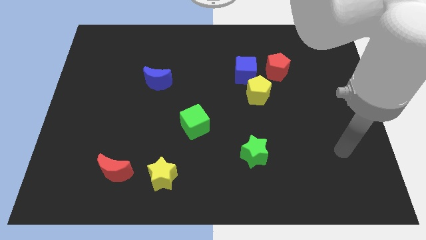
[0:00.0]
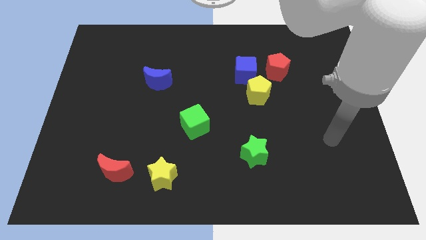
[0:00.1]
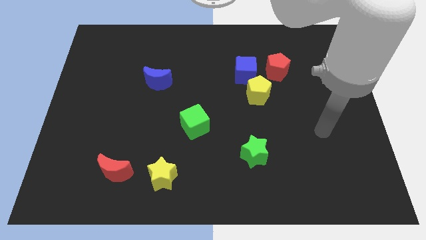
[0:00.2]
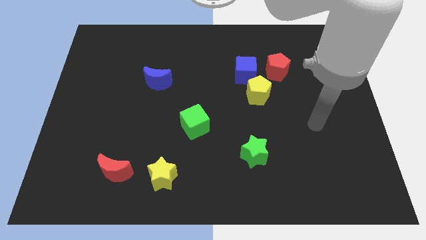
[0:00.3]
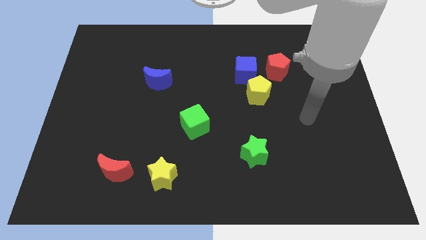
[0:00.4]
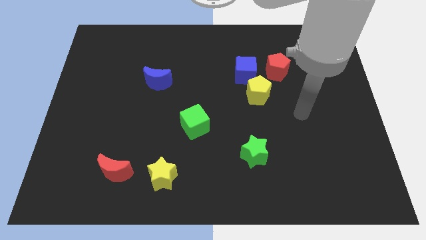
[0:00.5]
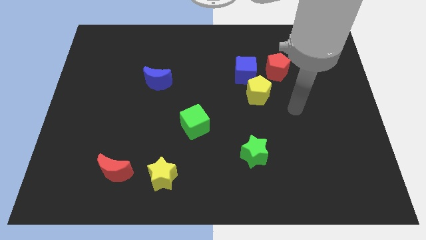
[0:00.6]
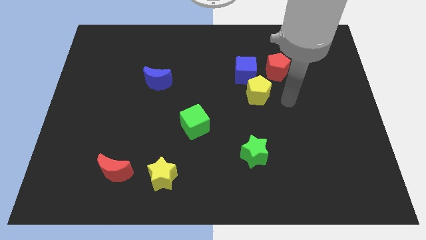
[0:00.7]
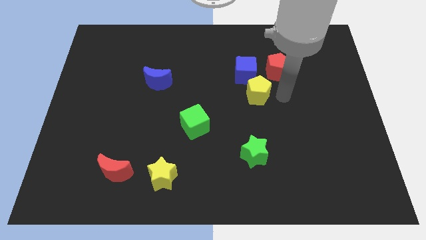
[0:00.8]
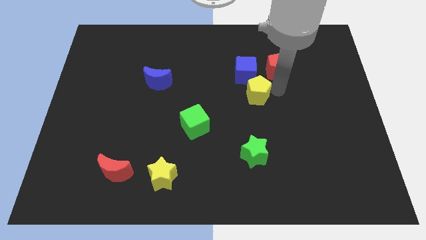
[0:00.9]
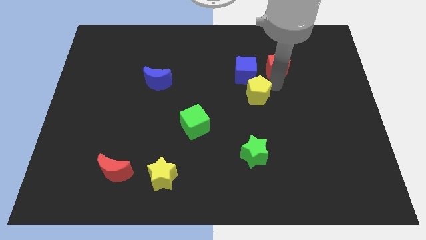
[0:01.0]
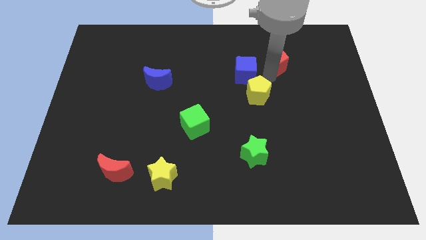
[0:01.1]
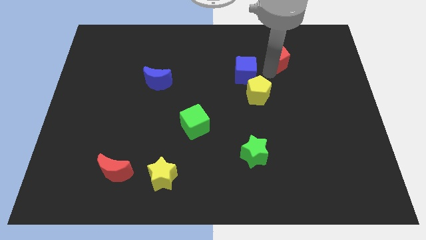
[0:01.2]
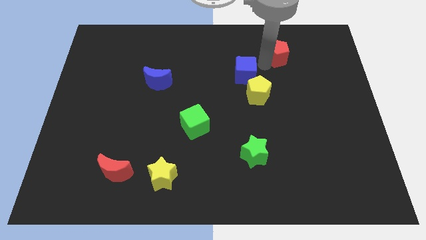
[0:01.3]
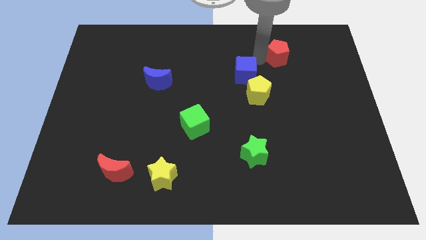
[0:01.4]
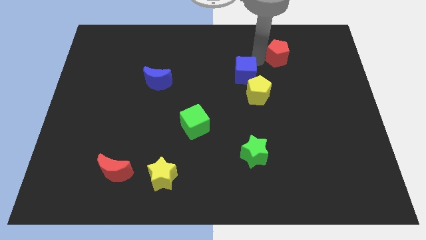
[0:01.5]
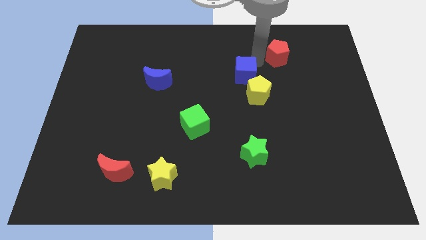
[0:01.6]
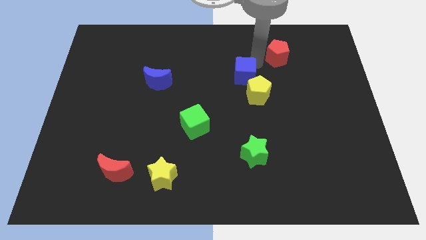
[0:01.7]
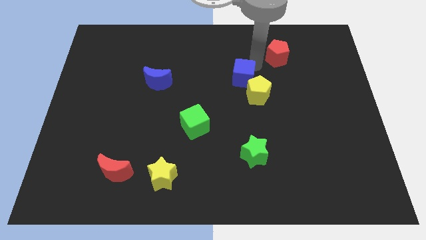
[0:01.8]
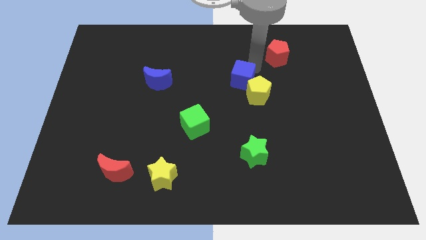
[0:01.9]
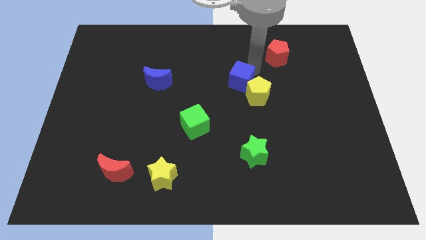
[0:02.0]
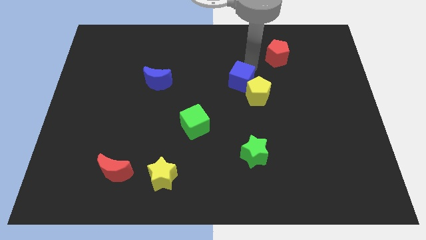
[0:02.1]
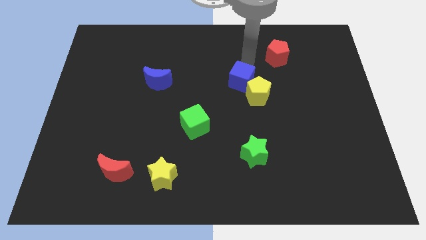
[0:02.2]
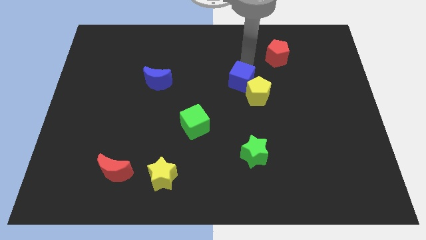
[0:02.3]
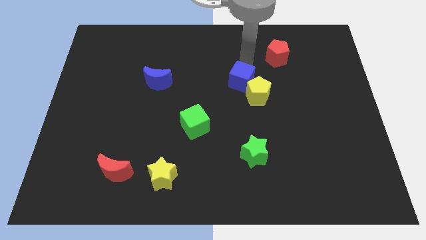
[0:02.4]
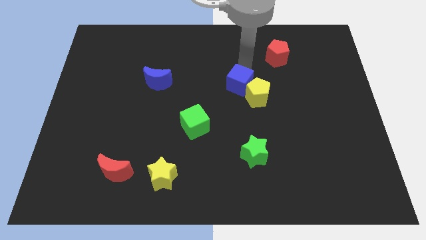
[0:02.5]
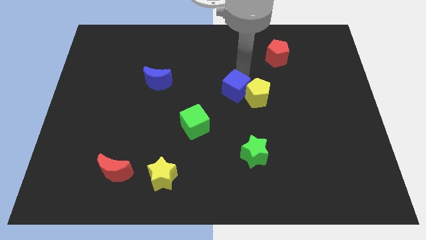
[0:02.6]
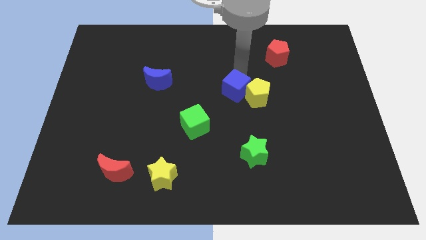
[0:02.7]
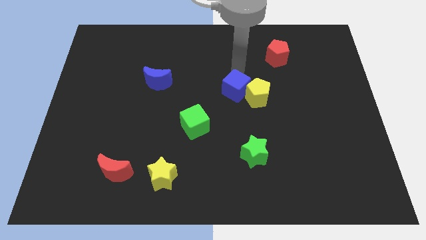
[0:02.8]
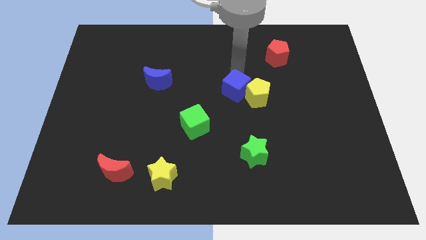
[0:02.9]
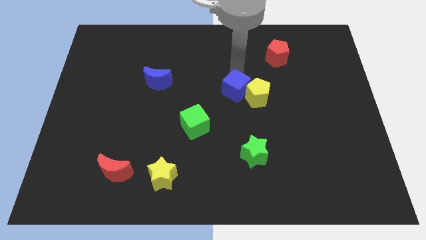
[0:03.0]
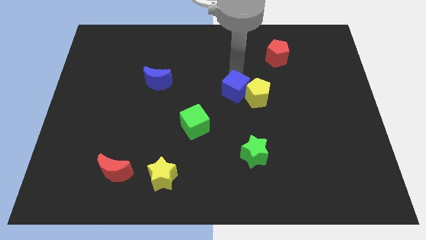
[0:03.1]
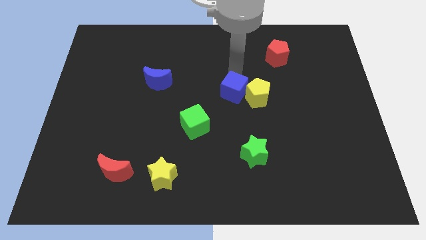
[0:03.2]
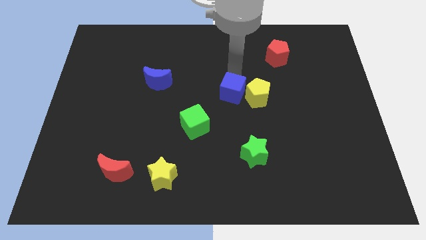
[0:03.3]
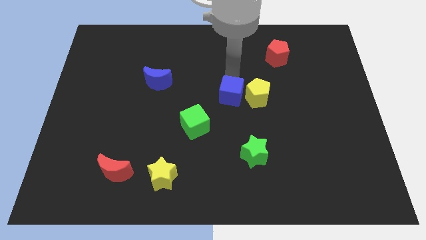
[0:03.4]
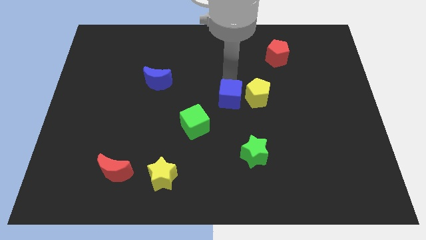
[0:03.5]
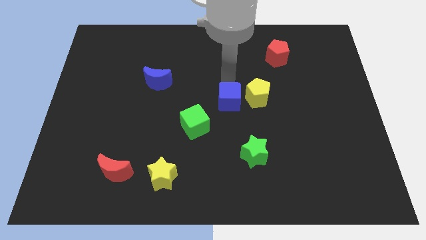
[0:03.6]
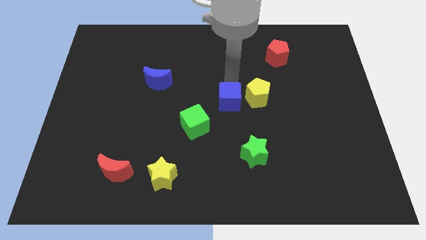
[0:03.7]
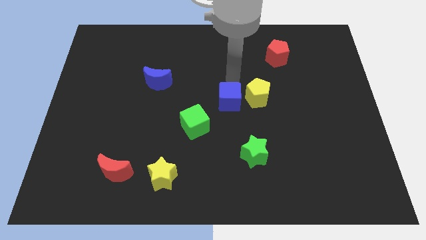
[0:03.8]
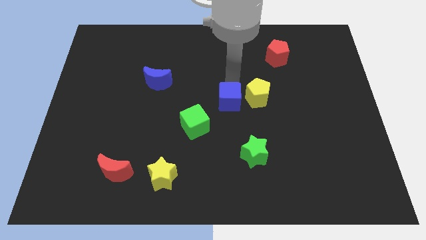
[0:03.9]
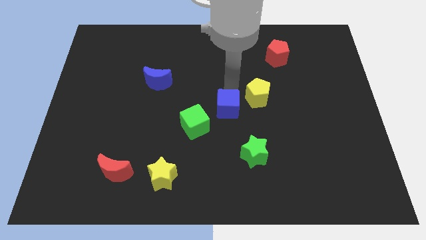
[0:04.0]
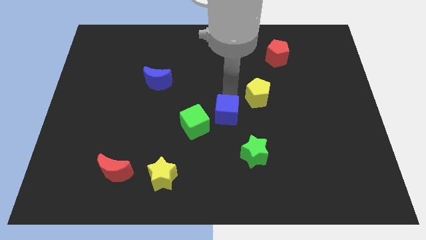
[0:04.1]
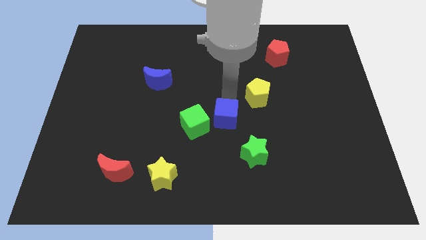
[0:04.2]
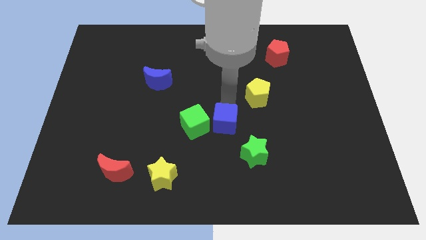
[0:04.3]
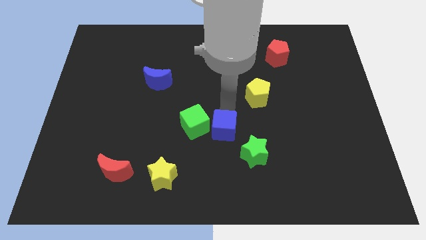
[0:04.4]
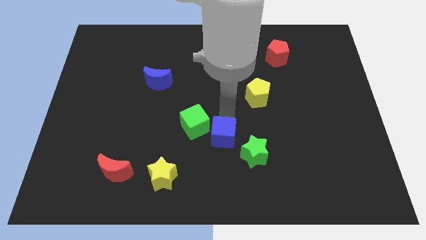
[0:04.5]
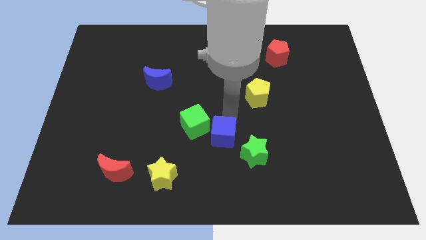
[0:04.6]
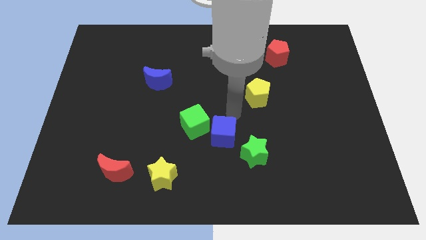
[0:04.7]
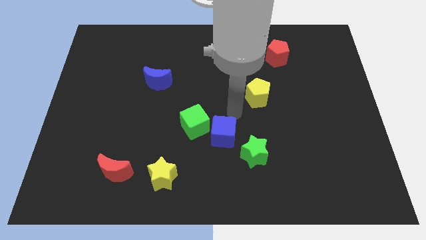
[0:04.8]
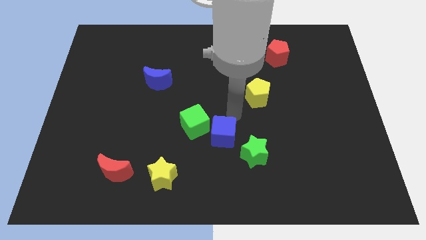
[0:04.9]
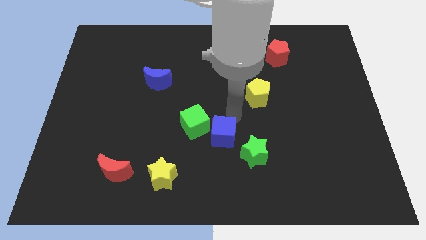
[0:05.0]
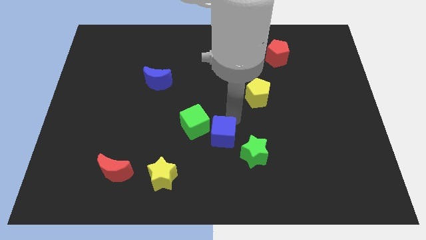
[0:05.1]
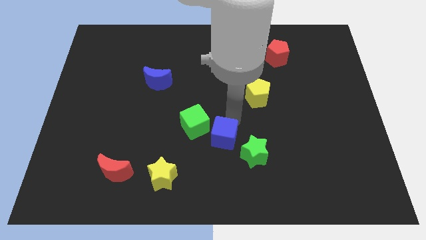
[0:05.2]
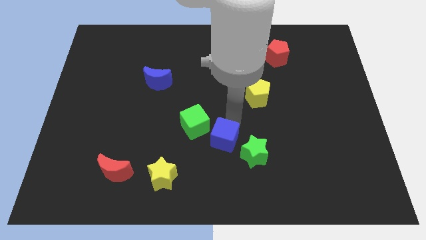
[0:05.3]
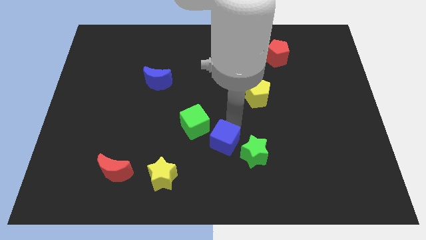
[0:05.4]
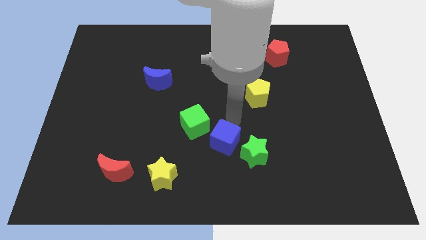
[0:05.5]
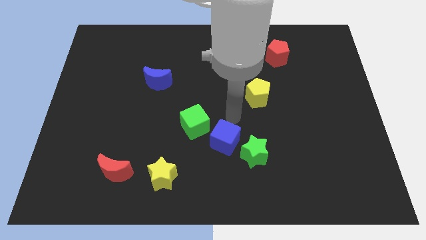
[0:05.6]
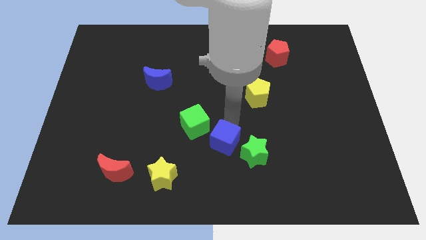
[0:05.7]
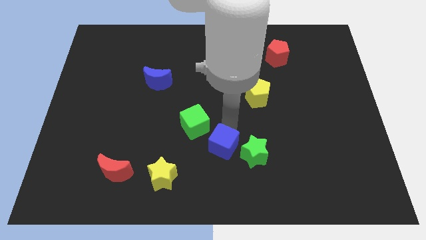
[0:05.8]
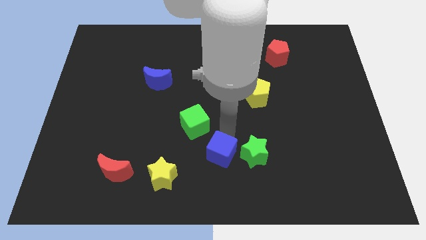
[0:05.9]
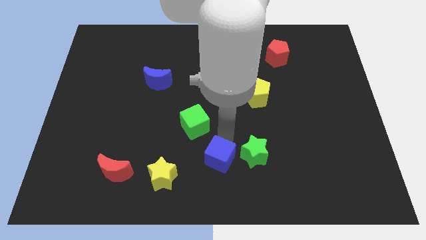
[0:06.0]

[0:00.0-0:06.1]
push the blue cube to the bottom
